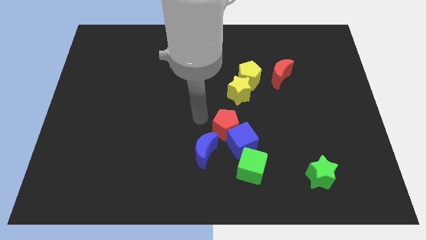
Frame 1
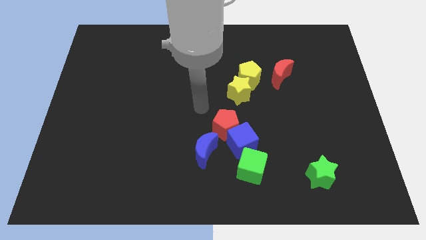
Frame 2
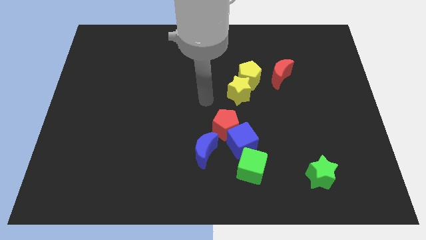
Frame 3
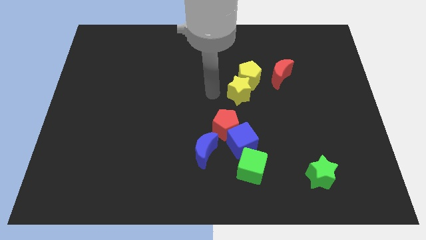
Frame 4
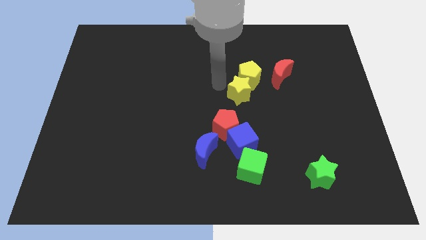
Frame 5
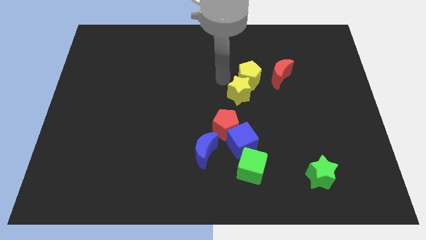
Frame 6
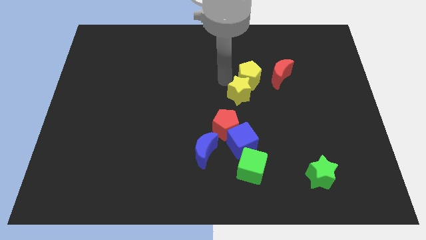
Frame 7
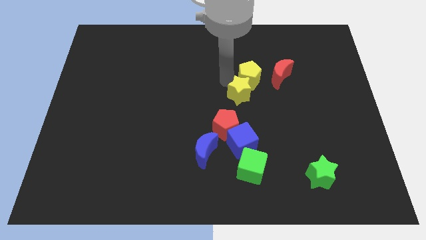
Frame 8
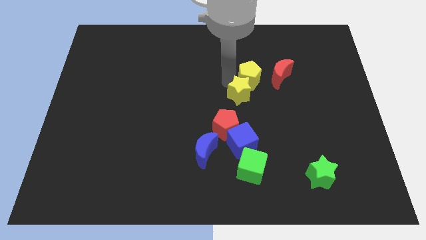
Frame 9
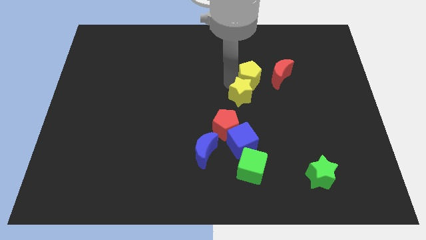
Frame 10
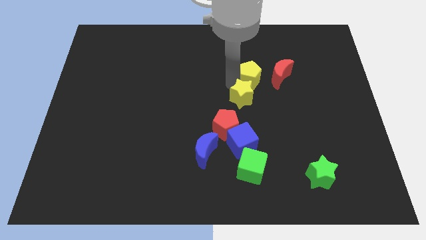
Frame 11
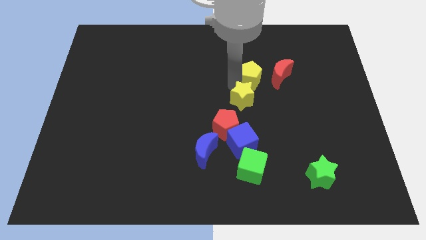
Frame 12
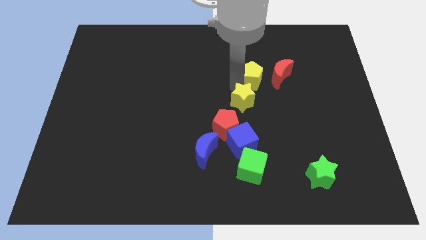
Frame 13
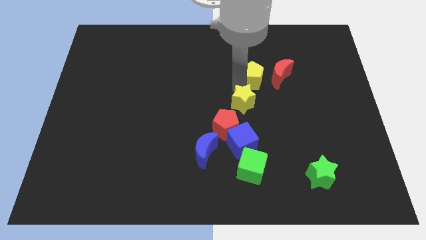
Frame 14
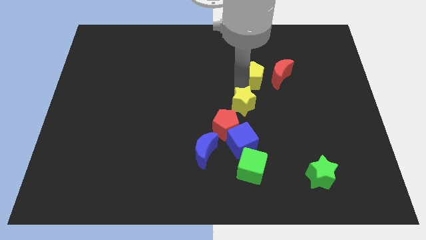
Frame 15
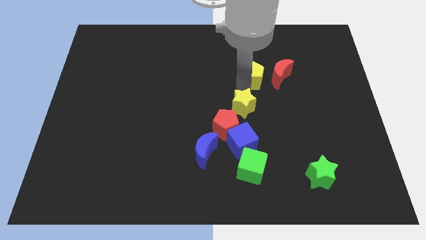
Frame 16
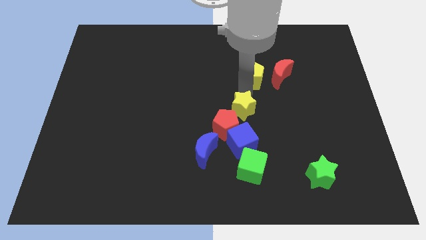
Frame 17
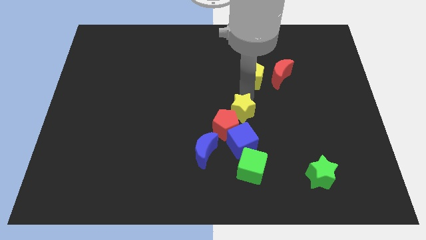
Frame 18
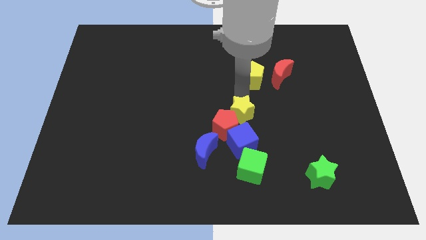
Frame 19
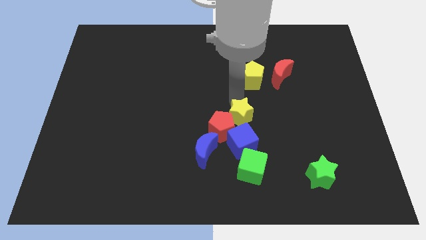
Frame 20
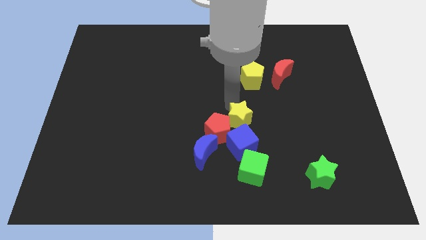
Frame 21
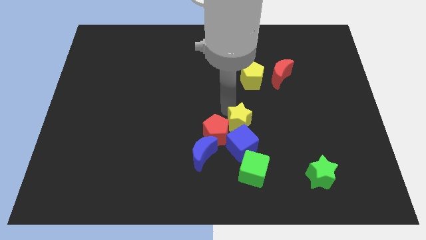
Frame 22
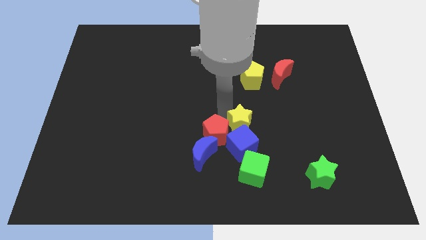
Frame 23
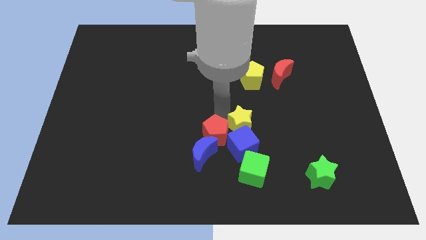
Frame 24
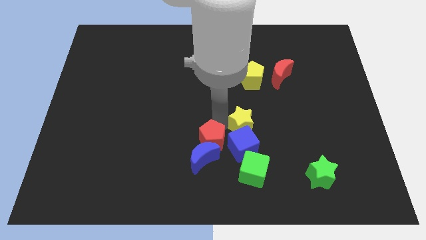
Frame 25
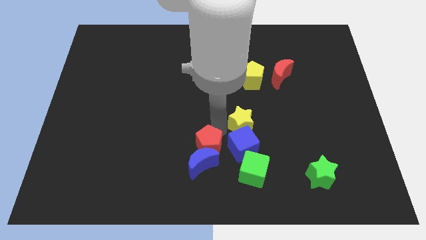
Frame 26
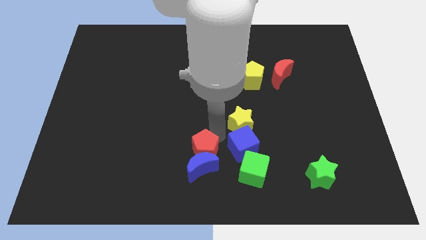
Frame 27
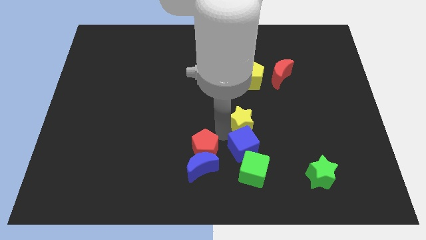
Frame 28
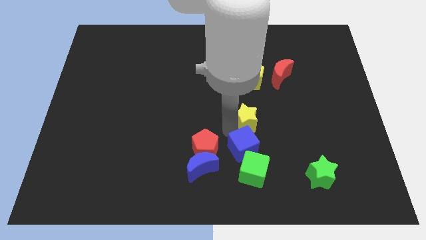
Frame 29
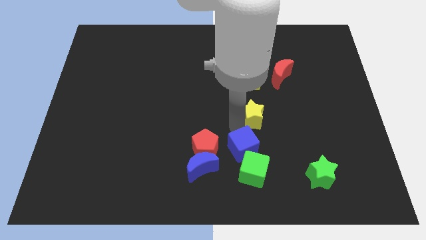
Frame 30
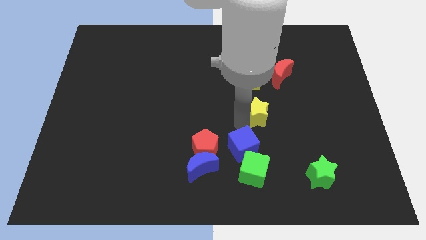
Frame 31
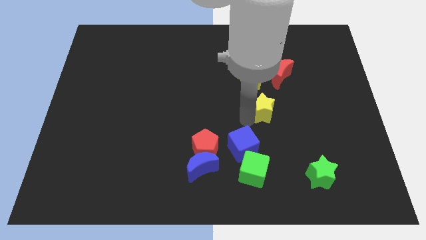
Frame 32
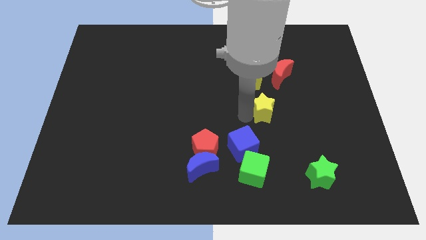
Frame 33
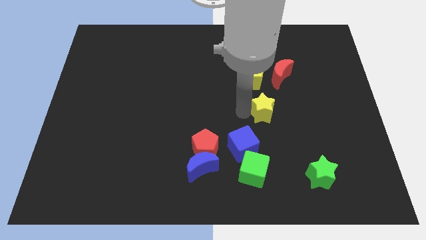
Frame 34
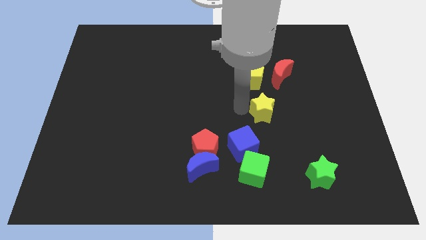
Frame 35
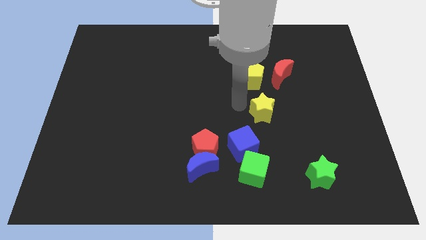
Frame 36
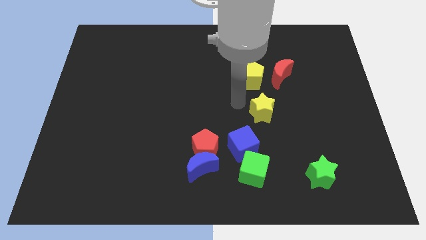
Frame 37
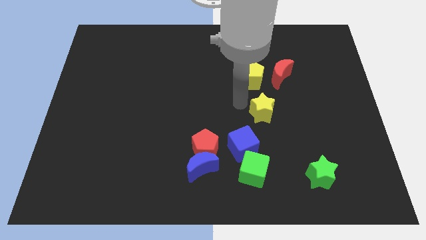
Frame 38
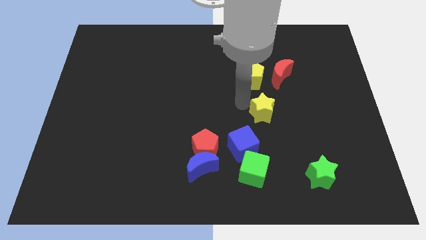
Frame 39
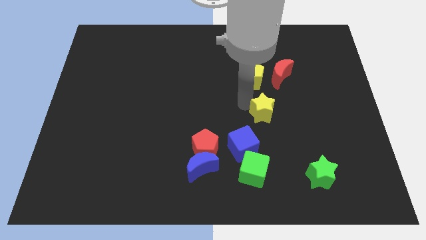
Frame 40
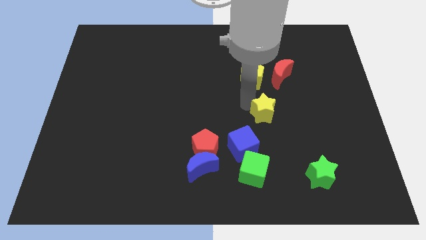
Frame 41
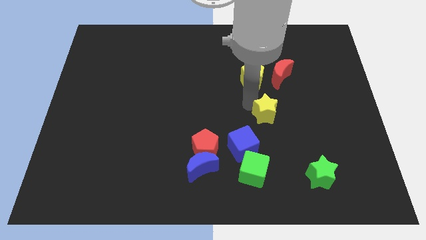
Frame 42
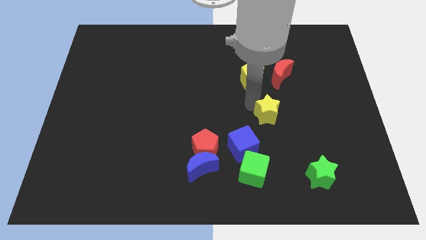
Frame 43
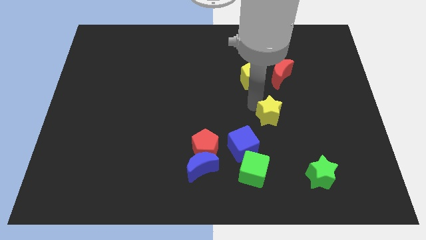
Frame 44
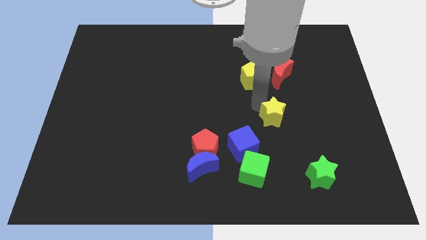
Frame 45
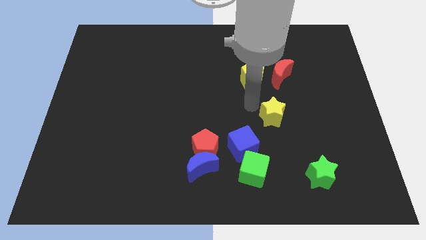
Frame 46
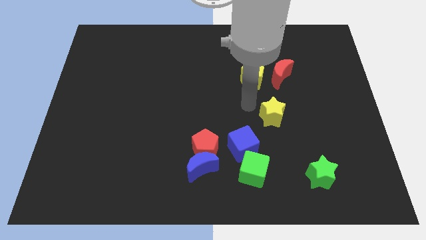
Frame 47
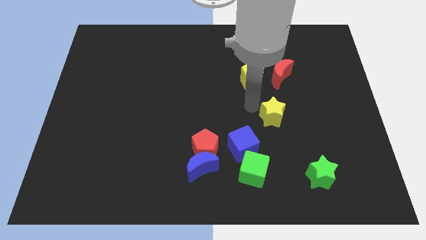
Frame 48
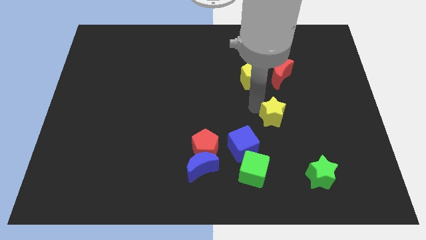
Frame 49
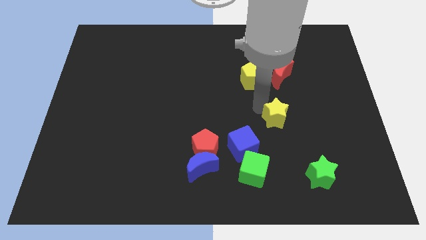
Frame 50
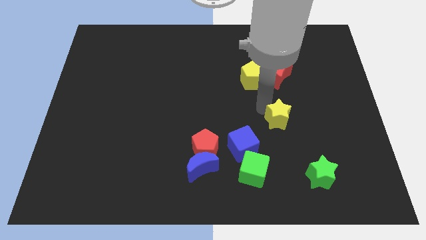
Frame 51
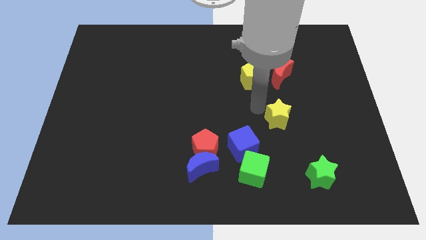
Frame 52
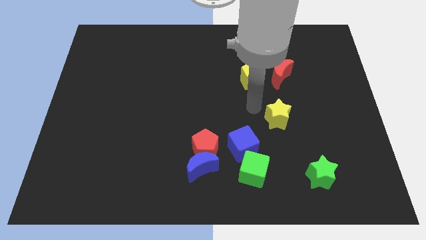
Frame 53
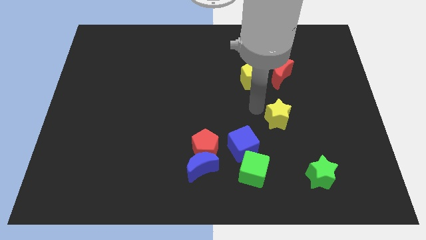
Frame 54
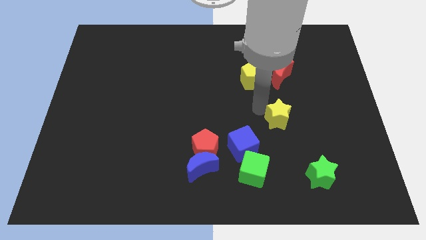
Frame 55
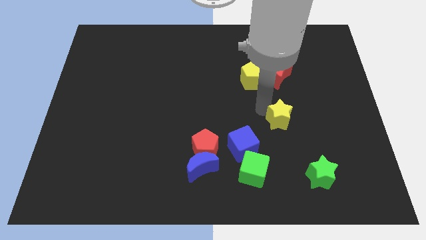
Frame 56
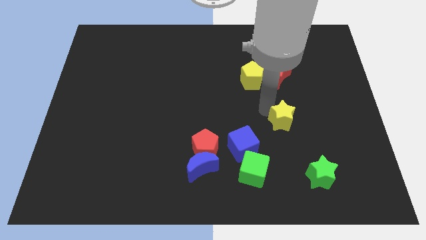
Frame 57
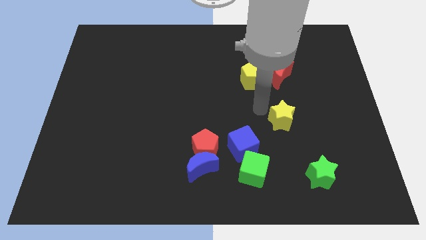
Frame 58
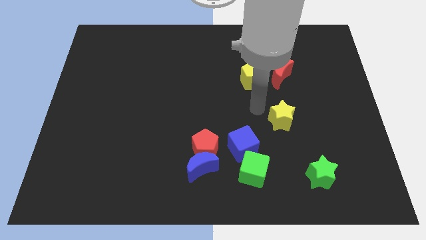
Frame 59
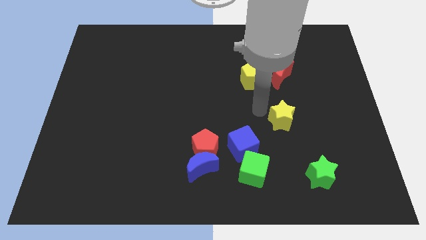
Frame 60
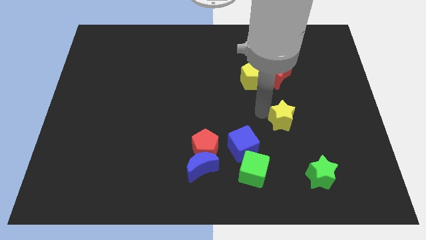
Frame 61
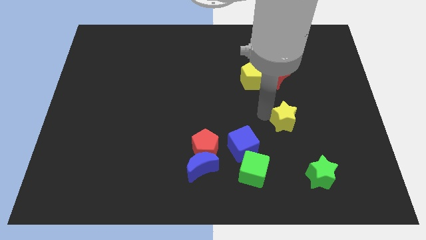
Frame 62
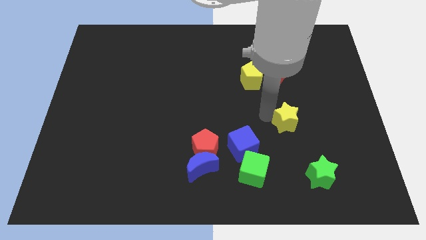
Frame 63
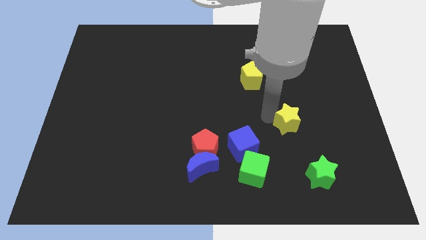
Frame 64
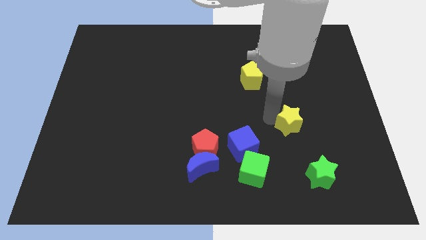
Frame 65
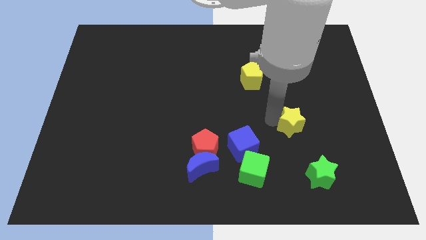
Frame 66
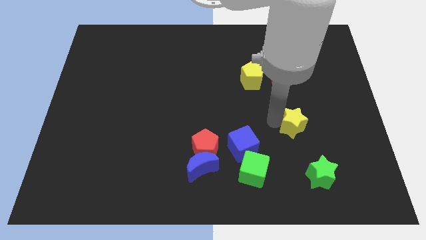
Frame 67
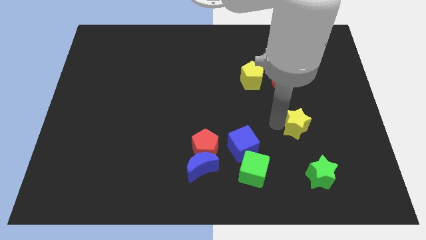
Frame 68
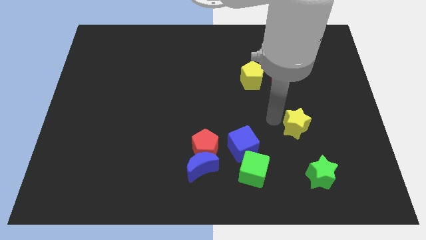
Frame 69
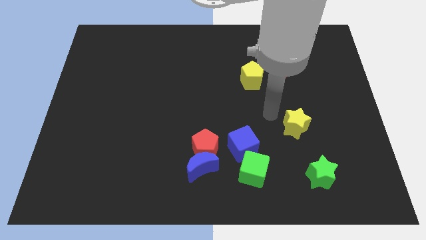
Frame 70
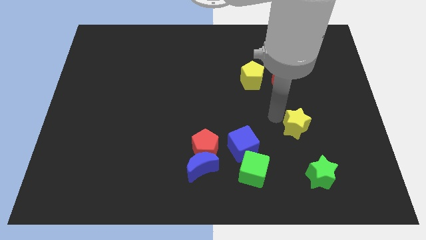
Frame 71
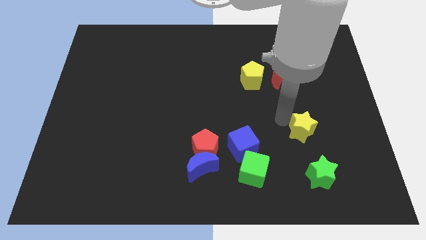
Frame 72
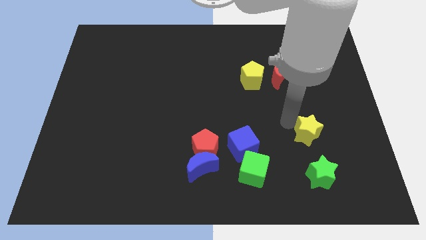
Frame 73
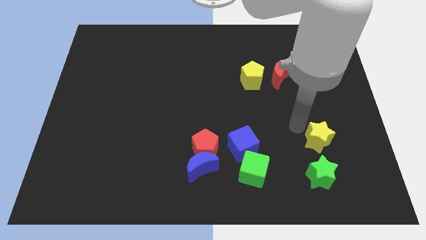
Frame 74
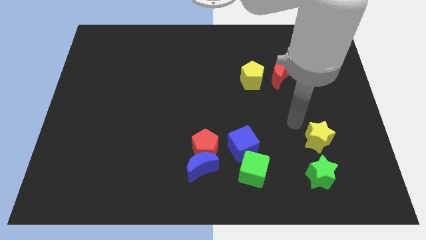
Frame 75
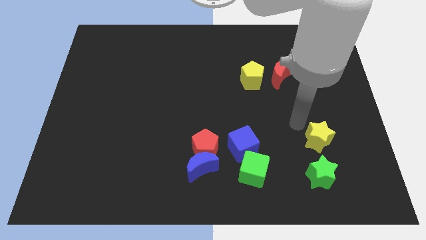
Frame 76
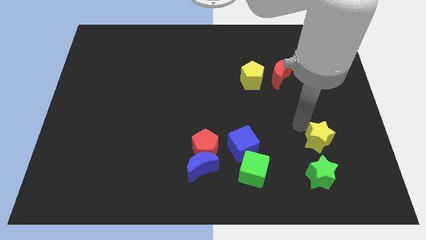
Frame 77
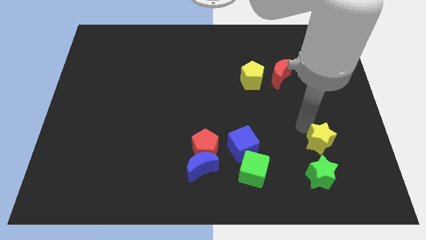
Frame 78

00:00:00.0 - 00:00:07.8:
slide the yellow star to the top right of the green star
